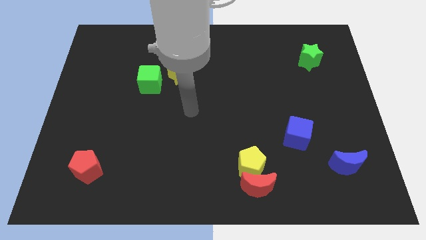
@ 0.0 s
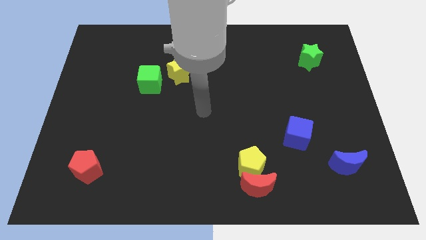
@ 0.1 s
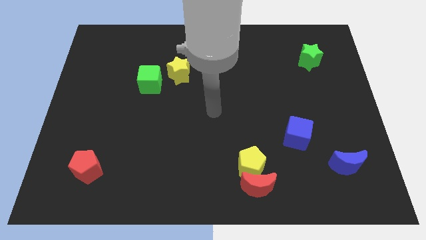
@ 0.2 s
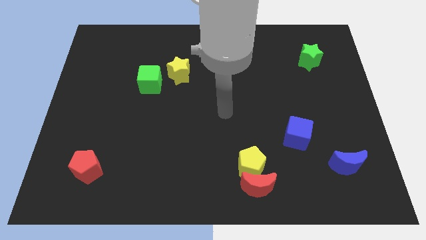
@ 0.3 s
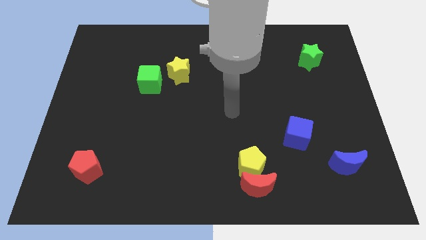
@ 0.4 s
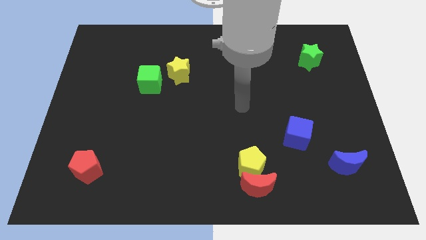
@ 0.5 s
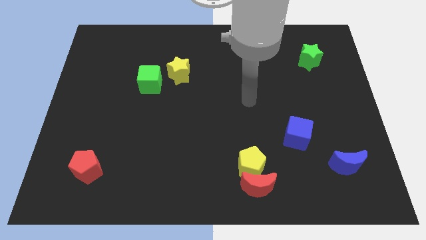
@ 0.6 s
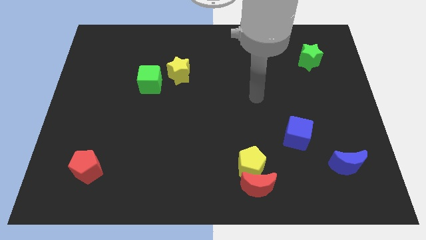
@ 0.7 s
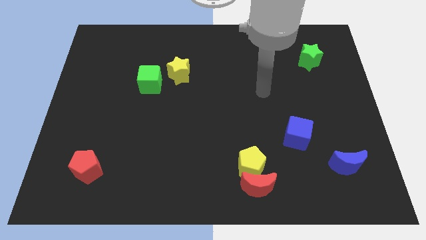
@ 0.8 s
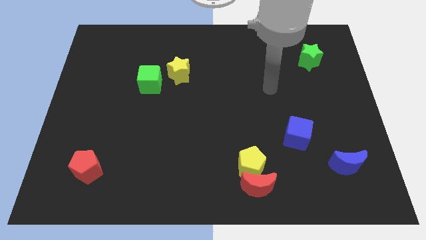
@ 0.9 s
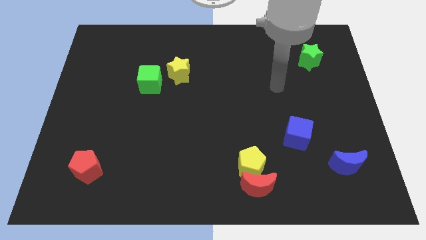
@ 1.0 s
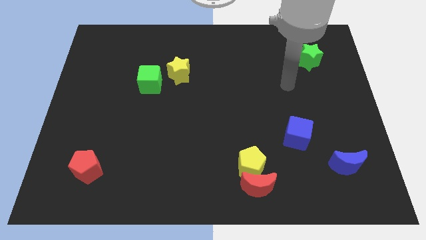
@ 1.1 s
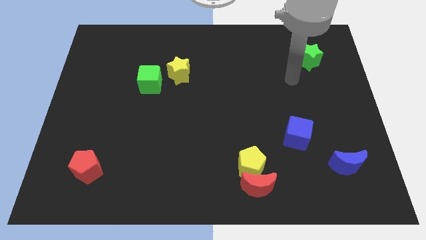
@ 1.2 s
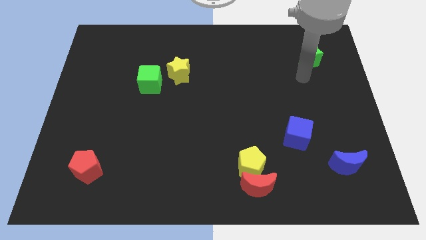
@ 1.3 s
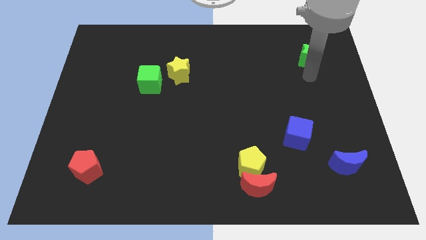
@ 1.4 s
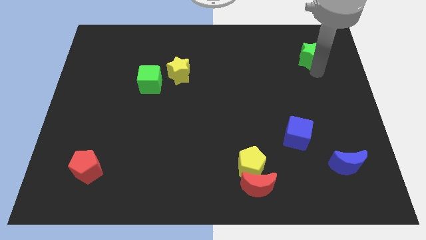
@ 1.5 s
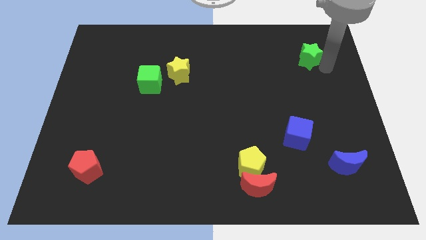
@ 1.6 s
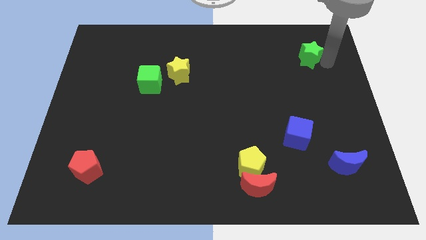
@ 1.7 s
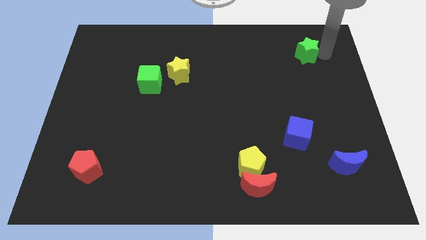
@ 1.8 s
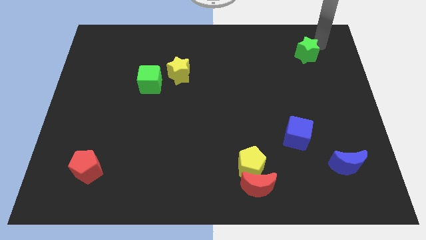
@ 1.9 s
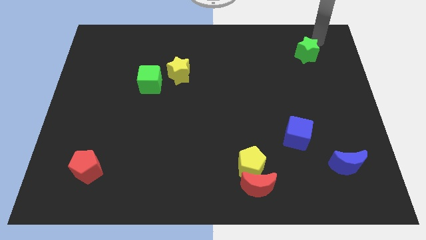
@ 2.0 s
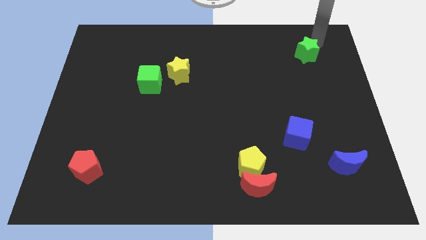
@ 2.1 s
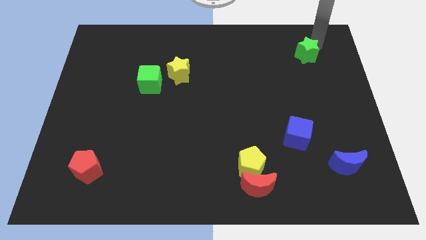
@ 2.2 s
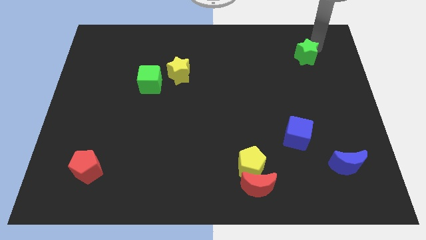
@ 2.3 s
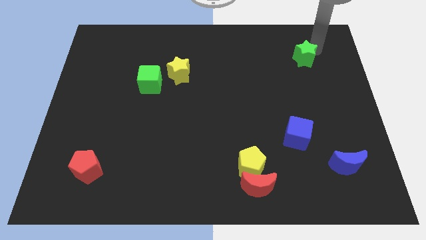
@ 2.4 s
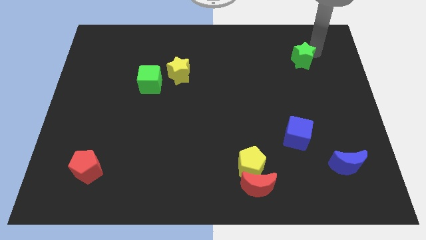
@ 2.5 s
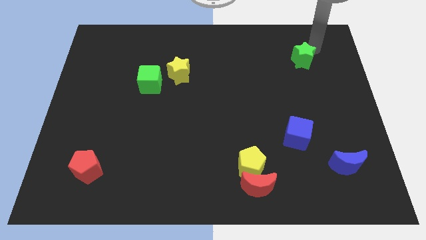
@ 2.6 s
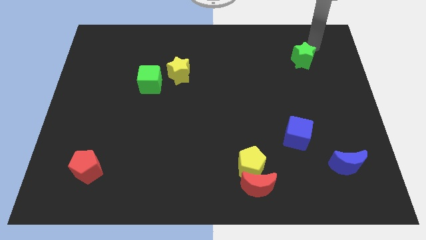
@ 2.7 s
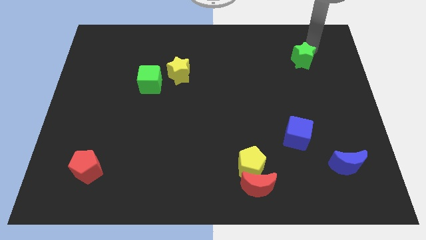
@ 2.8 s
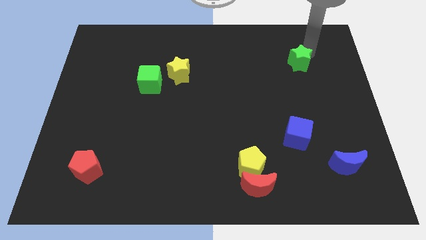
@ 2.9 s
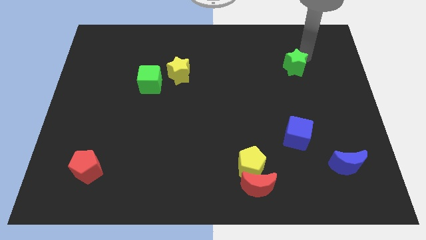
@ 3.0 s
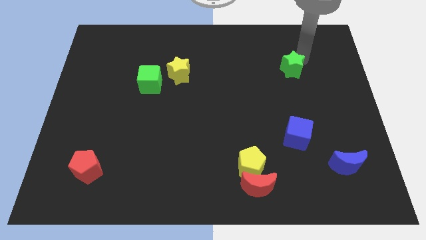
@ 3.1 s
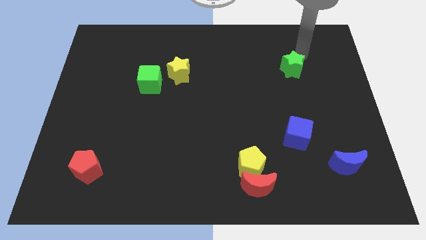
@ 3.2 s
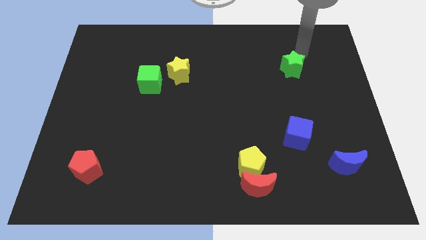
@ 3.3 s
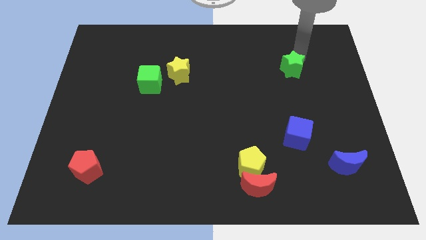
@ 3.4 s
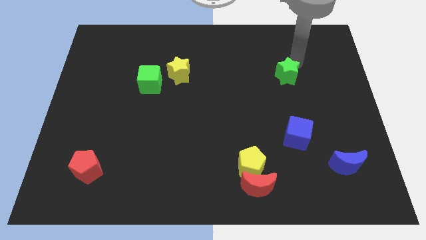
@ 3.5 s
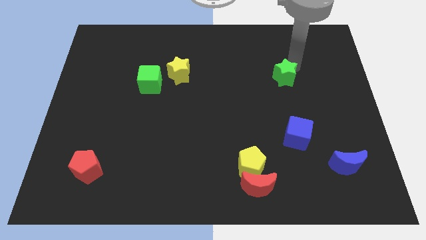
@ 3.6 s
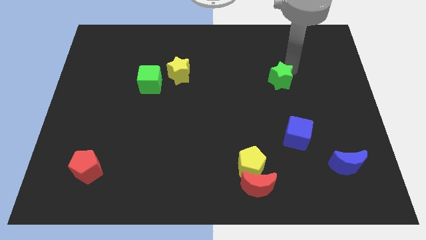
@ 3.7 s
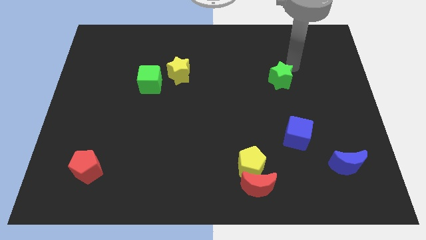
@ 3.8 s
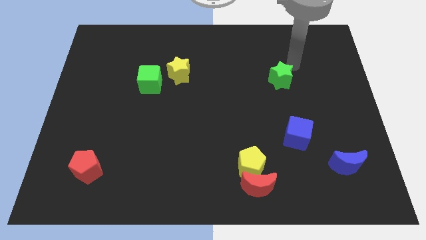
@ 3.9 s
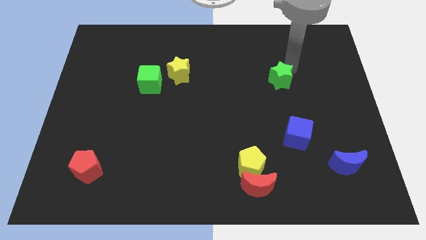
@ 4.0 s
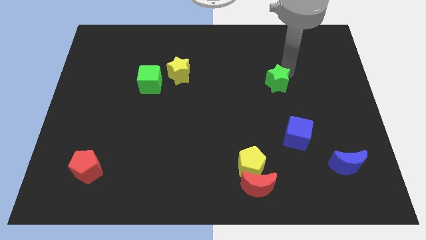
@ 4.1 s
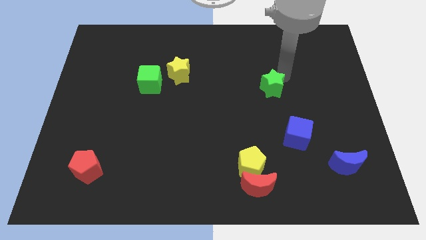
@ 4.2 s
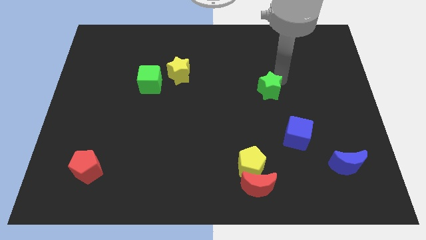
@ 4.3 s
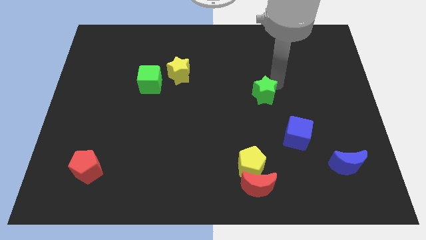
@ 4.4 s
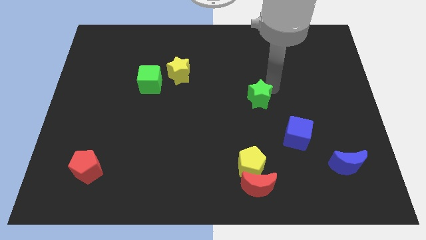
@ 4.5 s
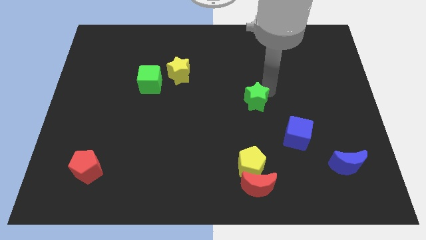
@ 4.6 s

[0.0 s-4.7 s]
push the green star downwards and left

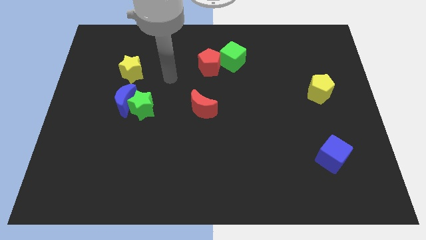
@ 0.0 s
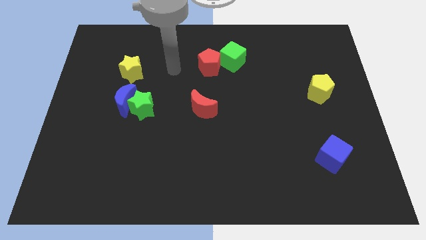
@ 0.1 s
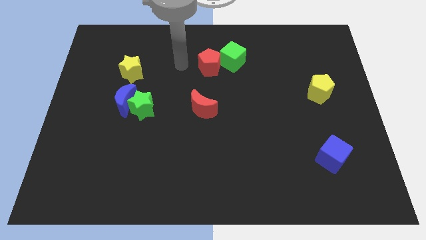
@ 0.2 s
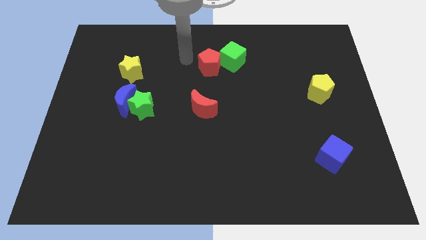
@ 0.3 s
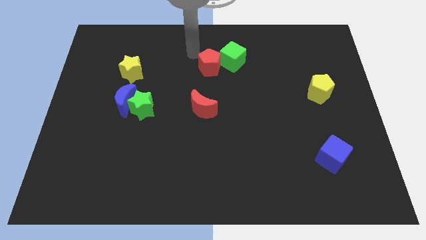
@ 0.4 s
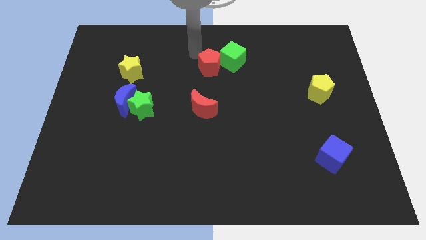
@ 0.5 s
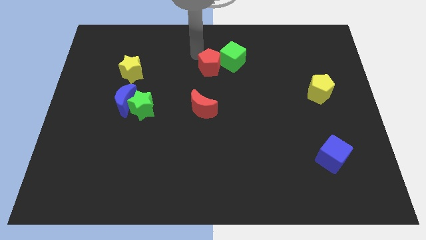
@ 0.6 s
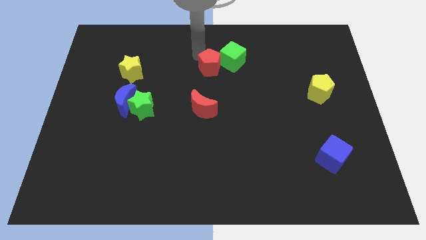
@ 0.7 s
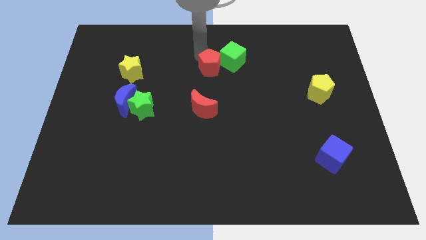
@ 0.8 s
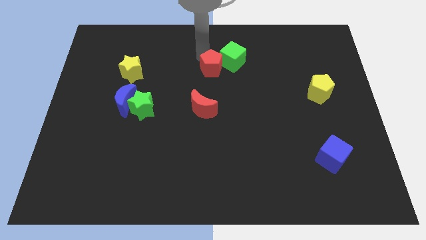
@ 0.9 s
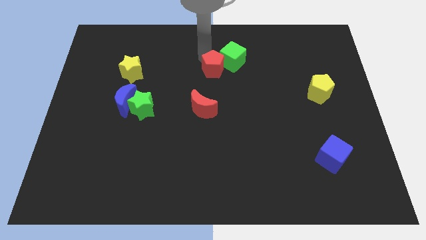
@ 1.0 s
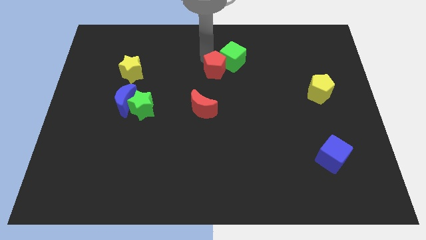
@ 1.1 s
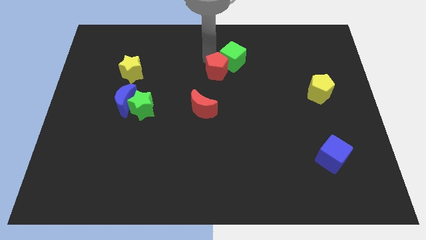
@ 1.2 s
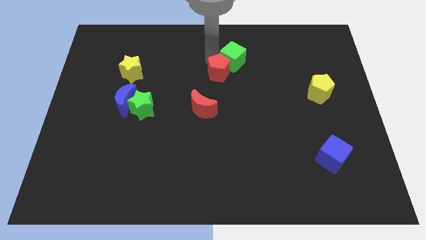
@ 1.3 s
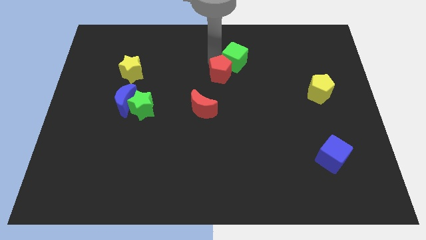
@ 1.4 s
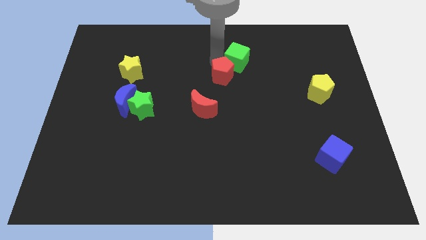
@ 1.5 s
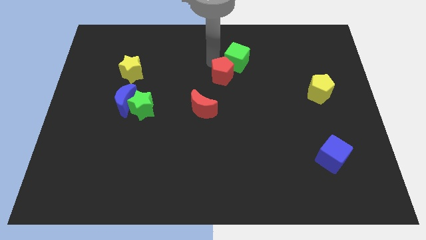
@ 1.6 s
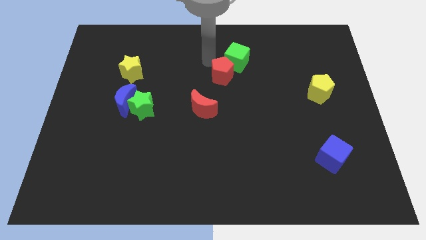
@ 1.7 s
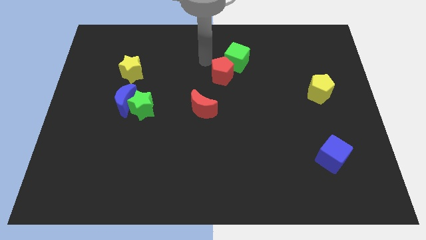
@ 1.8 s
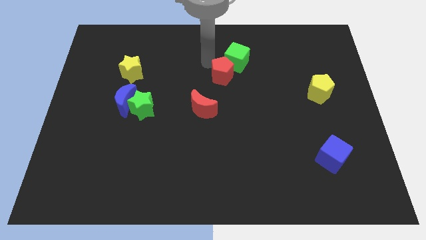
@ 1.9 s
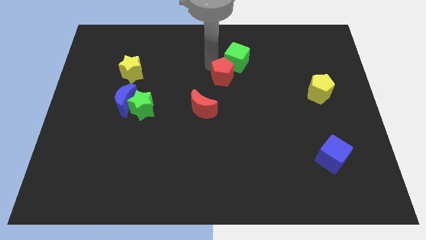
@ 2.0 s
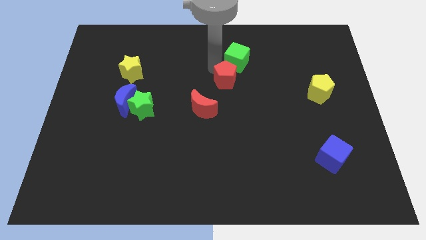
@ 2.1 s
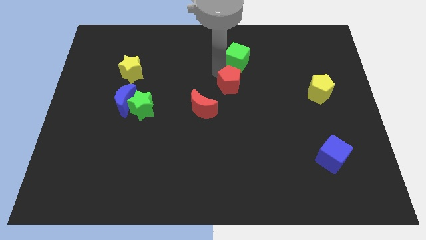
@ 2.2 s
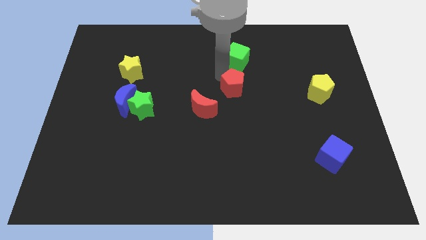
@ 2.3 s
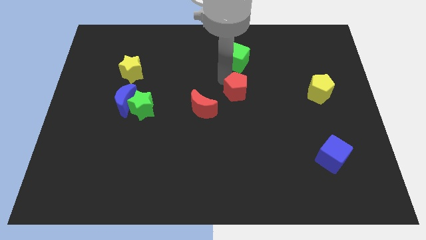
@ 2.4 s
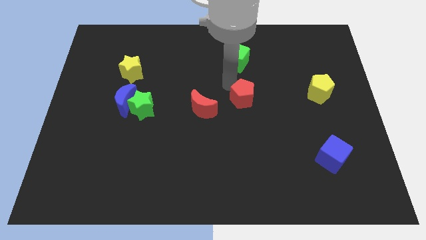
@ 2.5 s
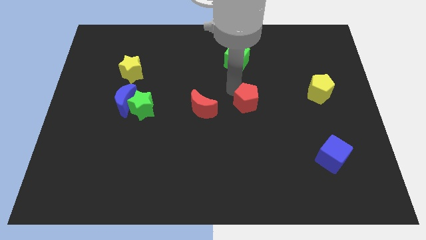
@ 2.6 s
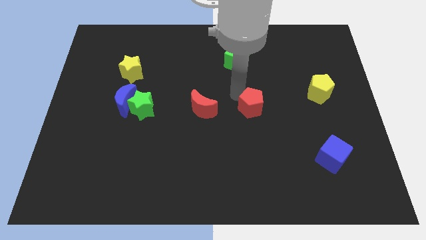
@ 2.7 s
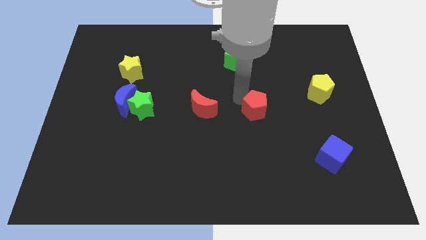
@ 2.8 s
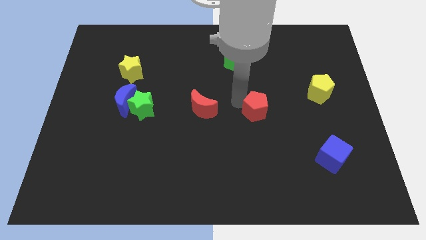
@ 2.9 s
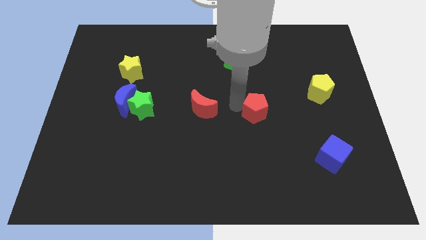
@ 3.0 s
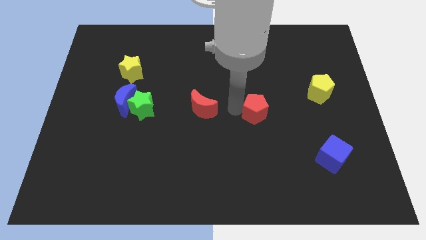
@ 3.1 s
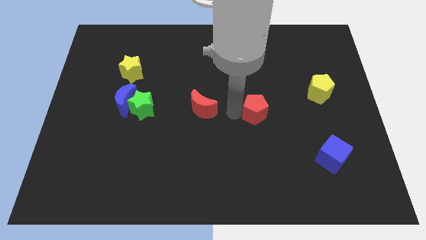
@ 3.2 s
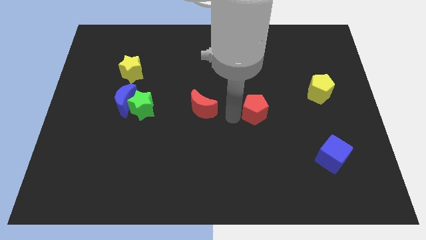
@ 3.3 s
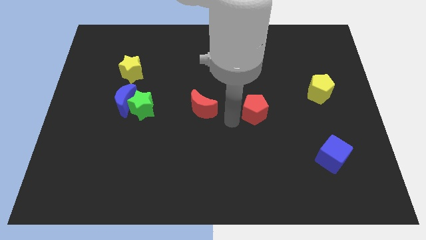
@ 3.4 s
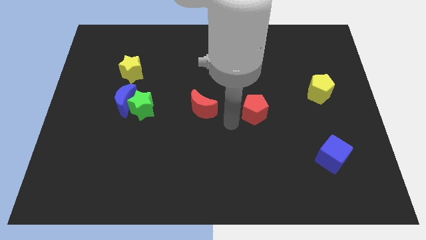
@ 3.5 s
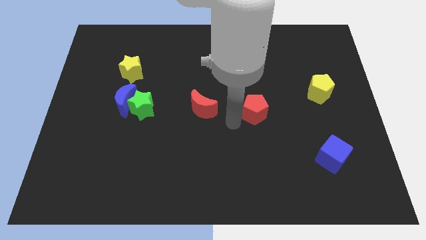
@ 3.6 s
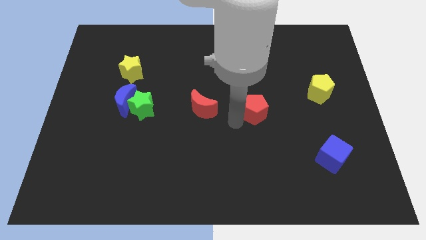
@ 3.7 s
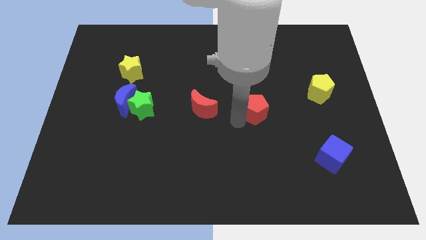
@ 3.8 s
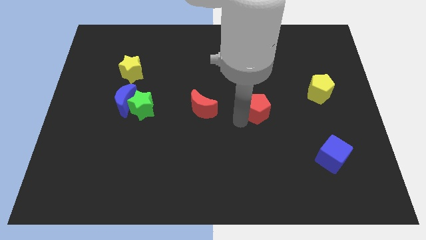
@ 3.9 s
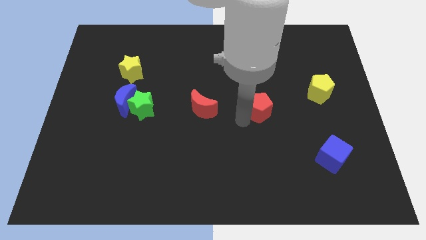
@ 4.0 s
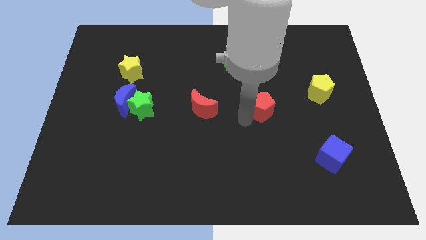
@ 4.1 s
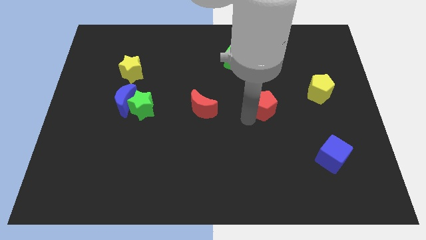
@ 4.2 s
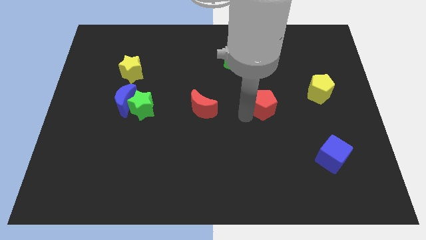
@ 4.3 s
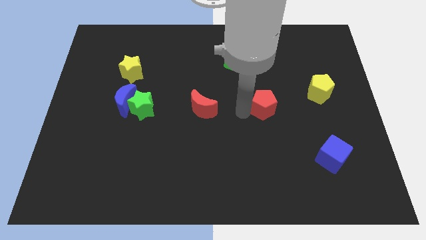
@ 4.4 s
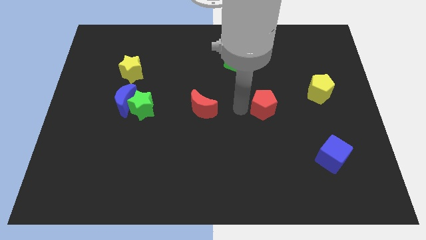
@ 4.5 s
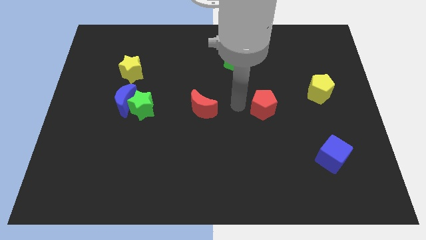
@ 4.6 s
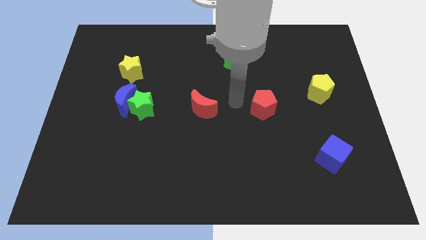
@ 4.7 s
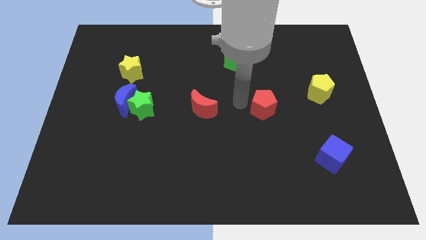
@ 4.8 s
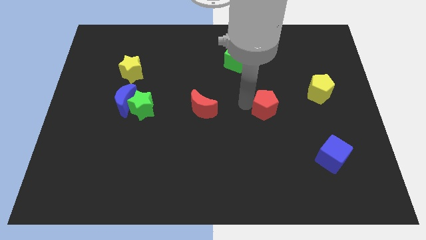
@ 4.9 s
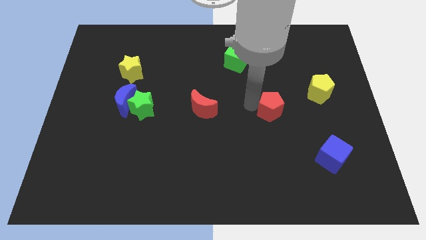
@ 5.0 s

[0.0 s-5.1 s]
push the red pentagon downwards and then to the right
